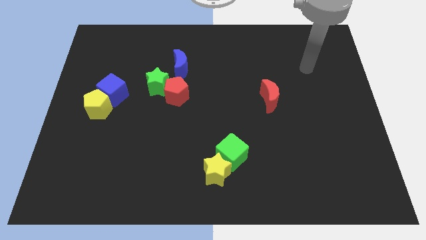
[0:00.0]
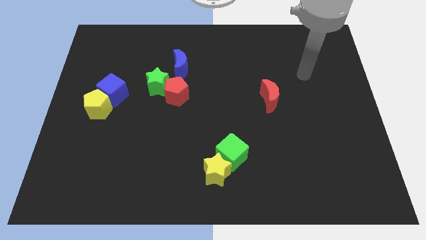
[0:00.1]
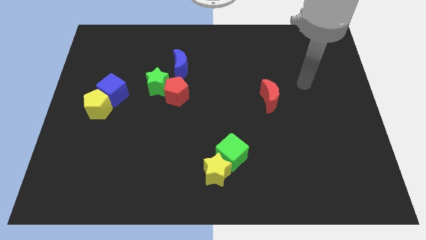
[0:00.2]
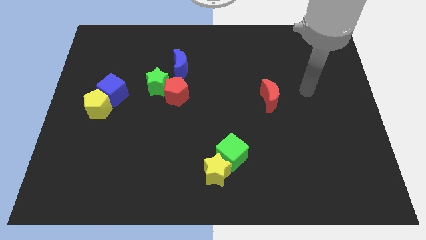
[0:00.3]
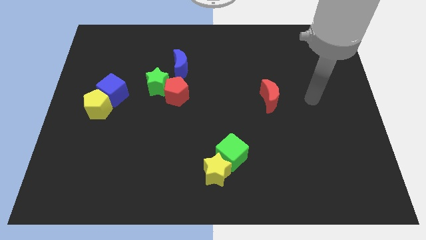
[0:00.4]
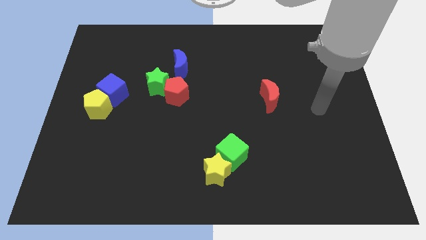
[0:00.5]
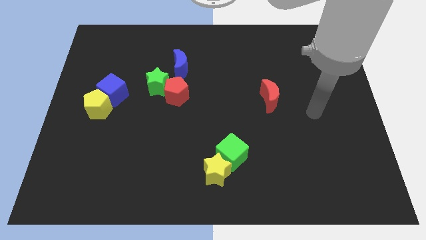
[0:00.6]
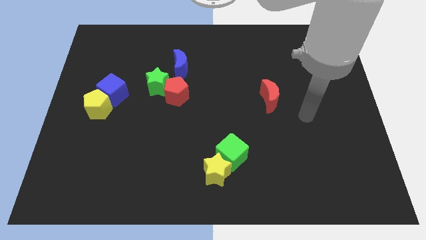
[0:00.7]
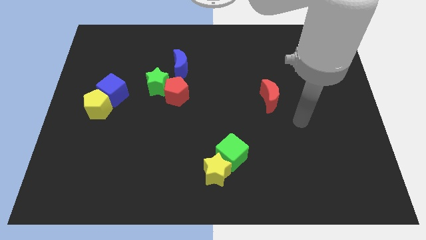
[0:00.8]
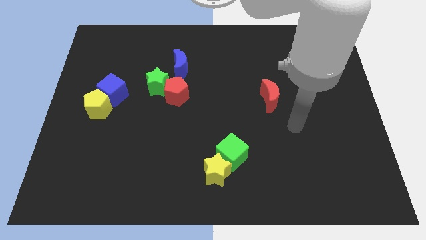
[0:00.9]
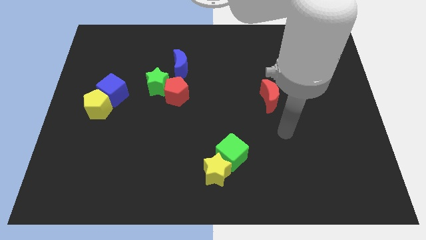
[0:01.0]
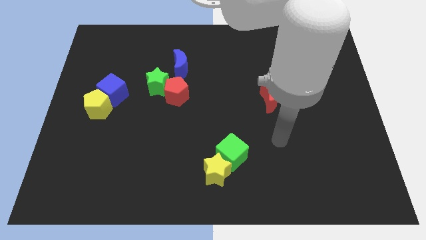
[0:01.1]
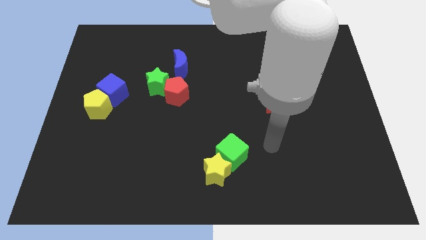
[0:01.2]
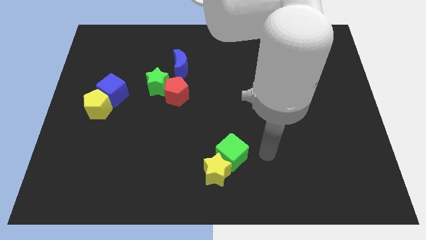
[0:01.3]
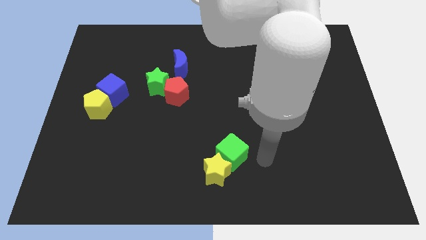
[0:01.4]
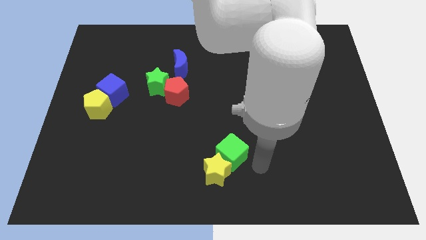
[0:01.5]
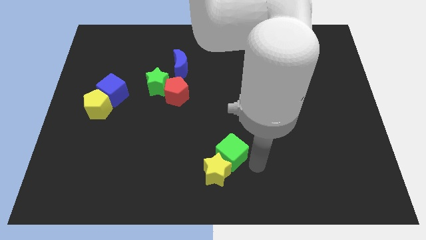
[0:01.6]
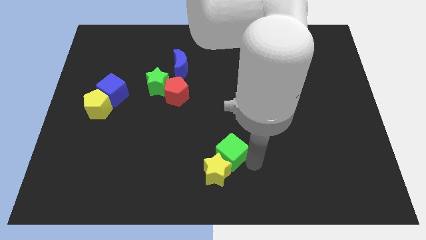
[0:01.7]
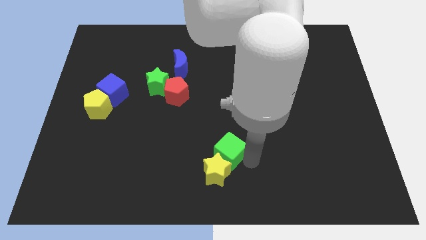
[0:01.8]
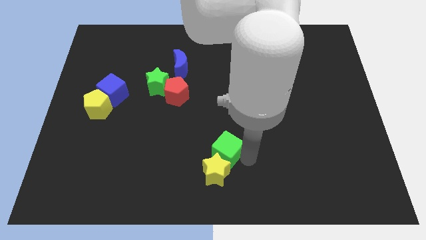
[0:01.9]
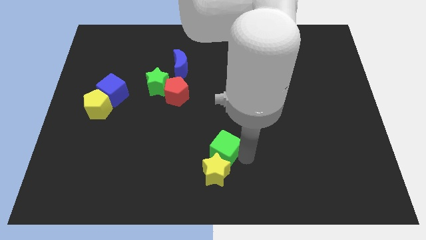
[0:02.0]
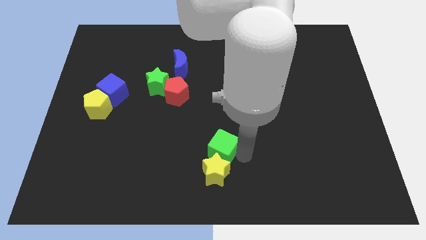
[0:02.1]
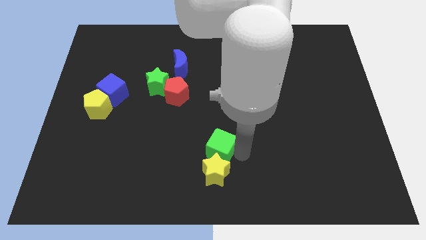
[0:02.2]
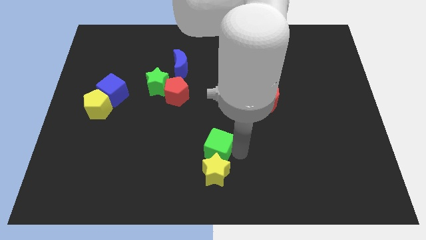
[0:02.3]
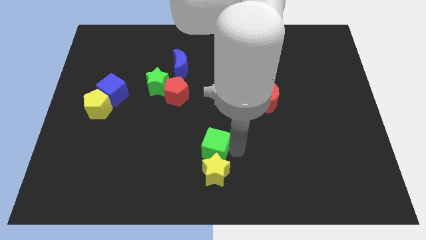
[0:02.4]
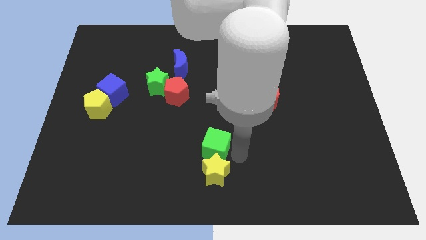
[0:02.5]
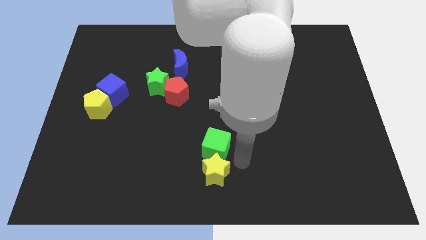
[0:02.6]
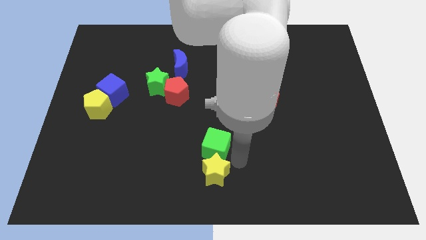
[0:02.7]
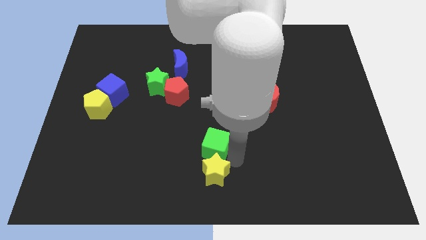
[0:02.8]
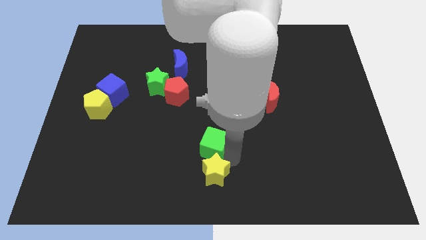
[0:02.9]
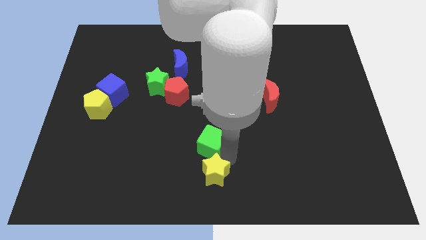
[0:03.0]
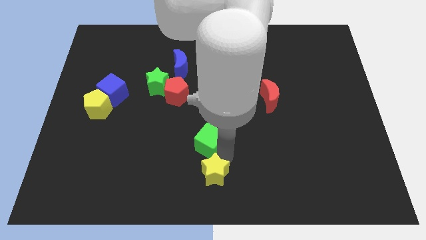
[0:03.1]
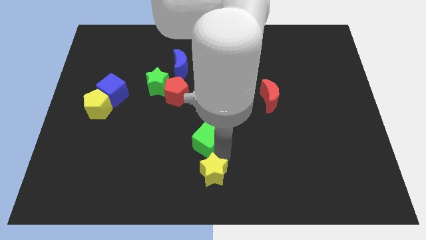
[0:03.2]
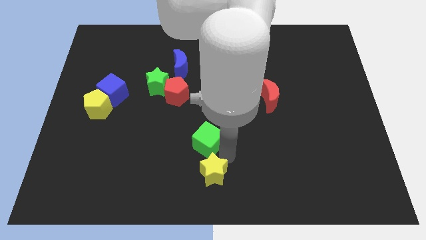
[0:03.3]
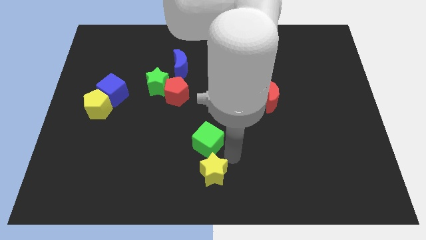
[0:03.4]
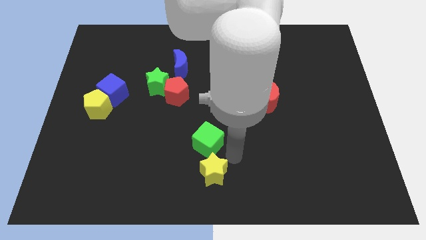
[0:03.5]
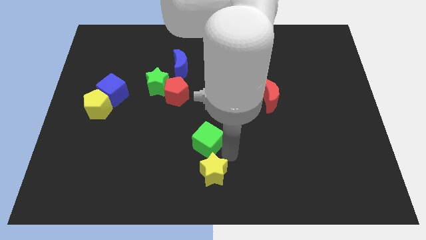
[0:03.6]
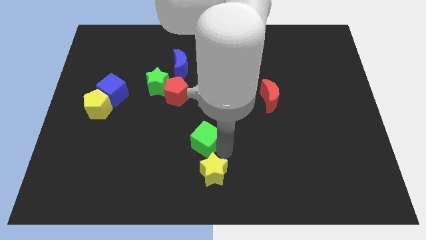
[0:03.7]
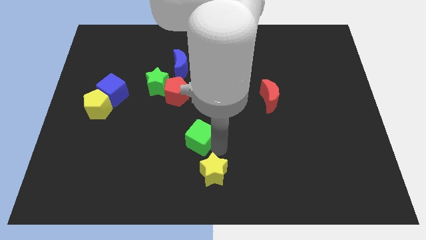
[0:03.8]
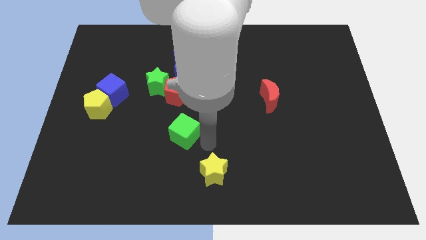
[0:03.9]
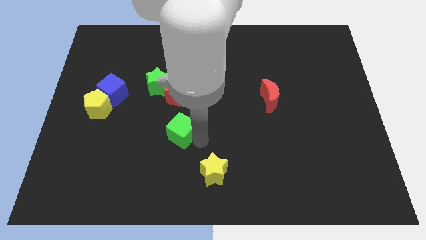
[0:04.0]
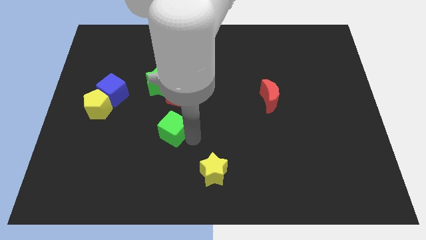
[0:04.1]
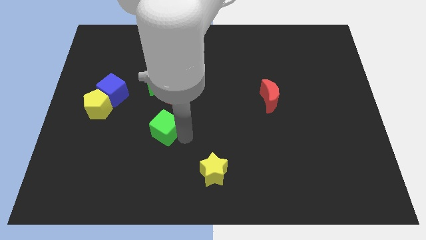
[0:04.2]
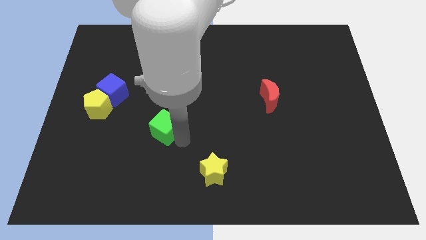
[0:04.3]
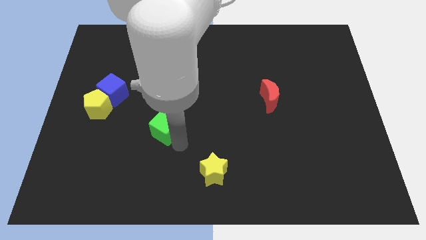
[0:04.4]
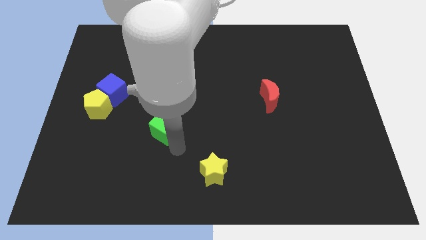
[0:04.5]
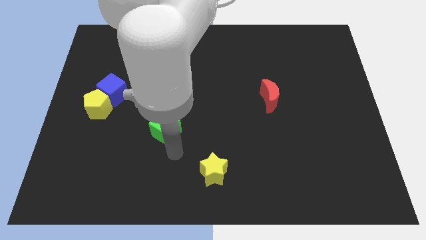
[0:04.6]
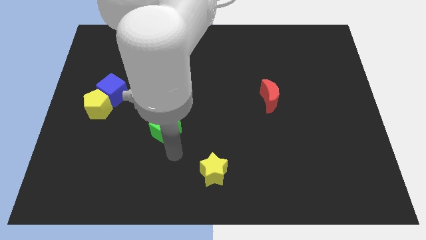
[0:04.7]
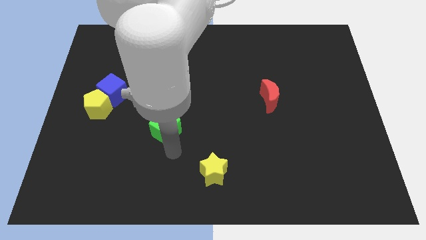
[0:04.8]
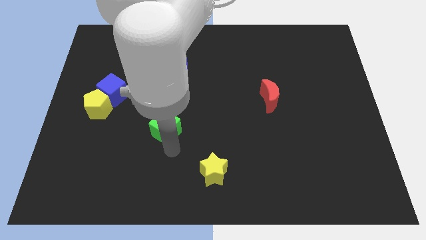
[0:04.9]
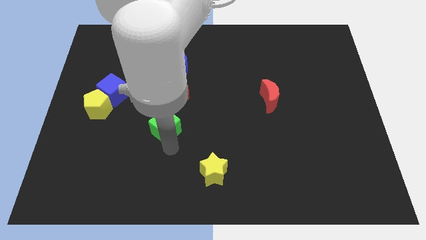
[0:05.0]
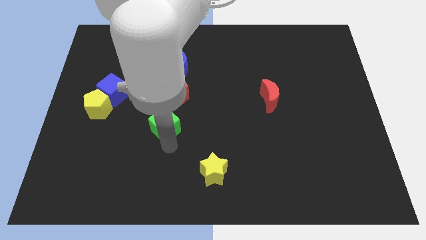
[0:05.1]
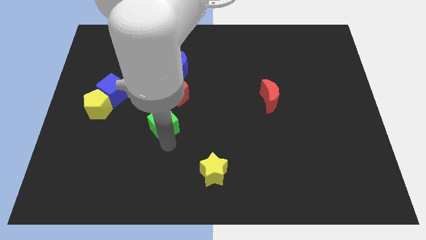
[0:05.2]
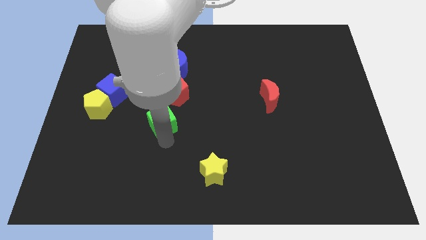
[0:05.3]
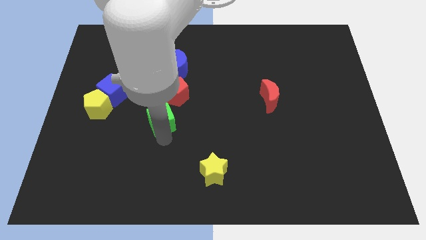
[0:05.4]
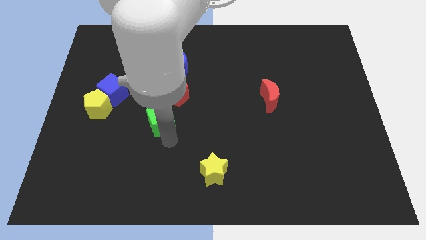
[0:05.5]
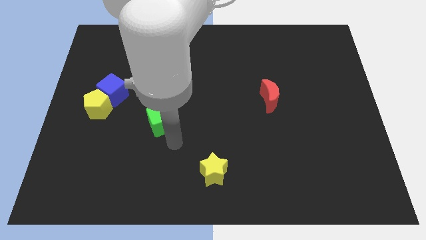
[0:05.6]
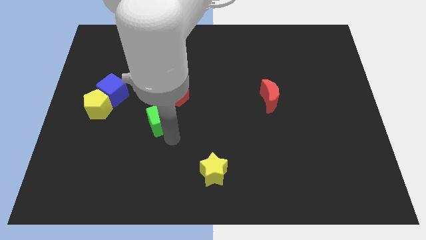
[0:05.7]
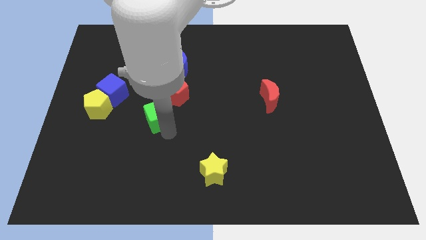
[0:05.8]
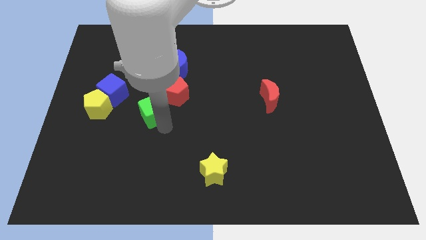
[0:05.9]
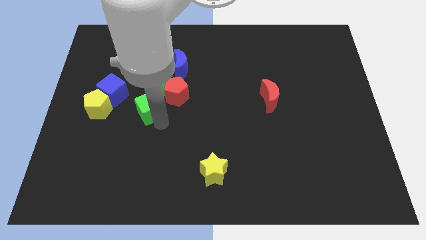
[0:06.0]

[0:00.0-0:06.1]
slide the green cube diagonally up and to the left

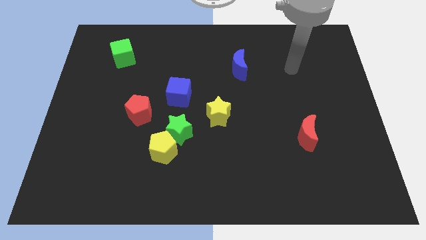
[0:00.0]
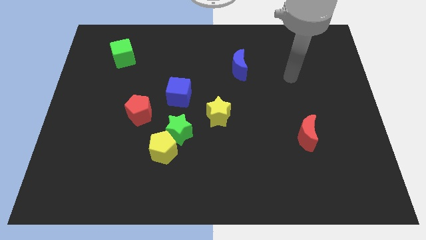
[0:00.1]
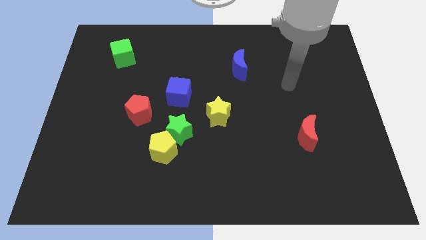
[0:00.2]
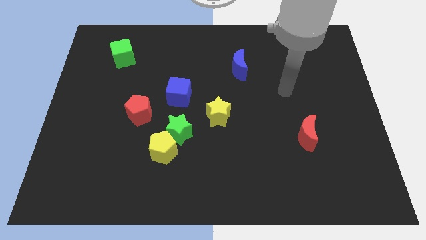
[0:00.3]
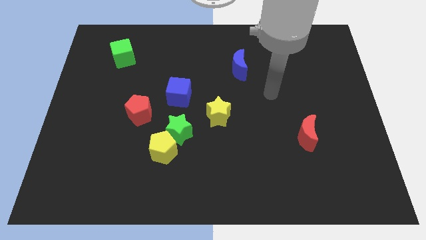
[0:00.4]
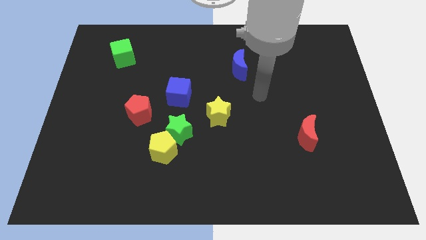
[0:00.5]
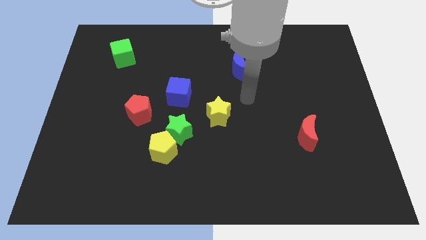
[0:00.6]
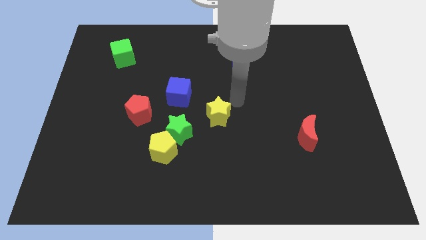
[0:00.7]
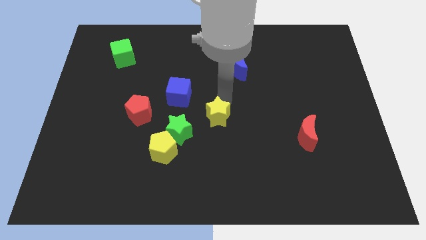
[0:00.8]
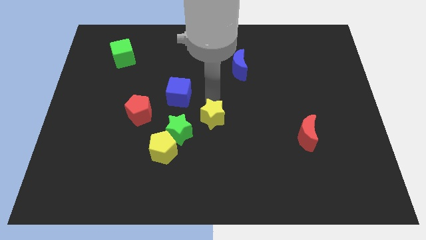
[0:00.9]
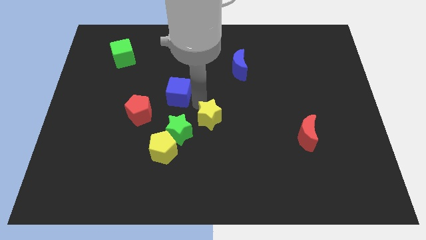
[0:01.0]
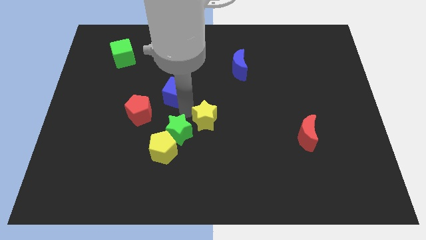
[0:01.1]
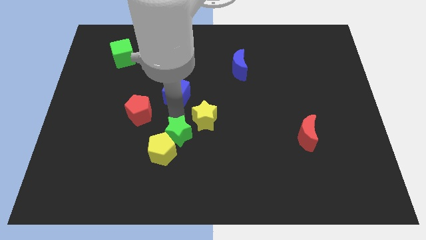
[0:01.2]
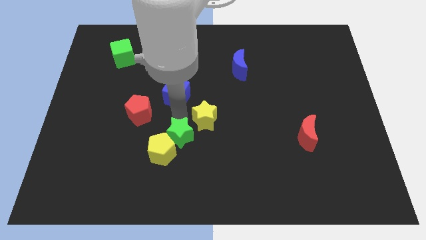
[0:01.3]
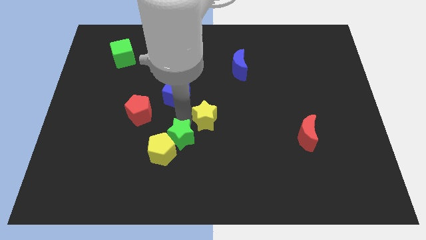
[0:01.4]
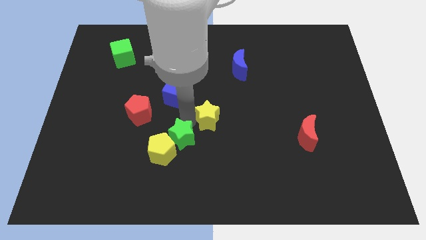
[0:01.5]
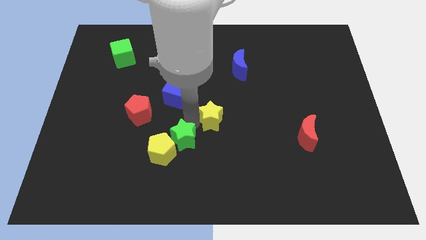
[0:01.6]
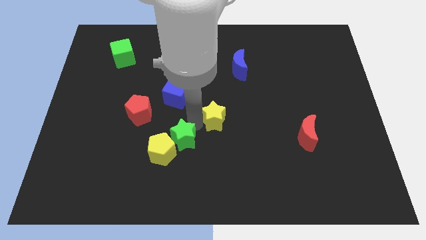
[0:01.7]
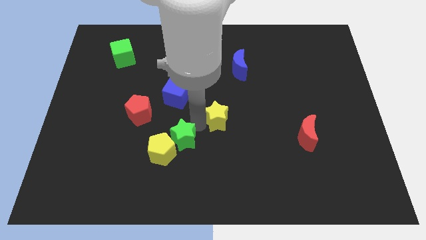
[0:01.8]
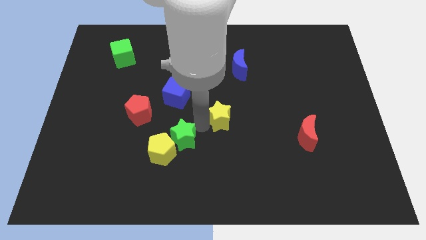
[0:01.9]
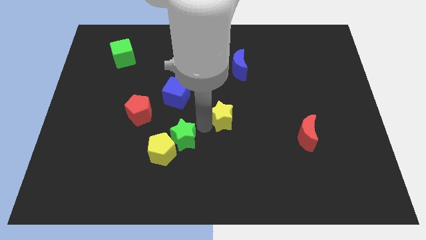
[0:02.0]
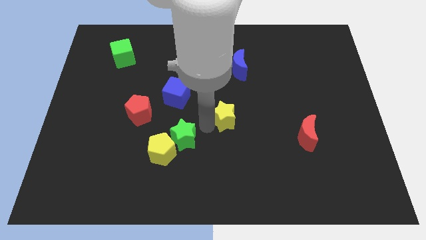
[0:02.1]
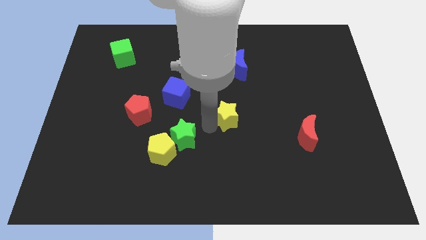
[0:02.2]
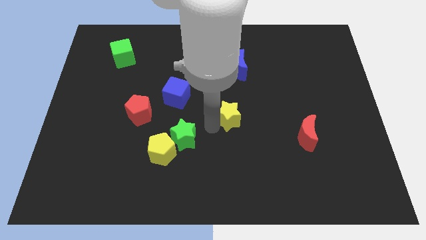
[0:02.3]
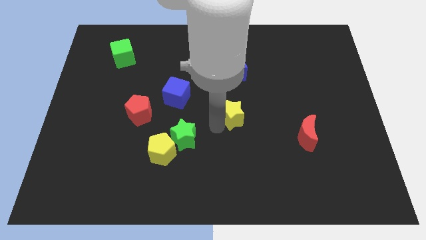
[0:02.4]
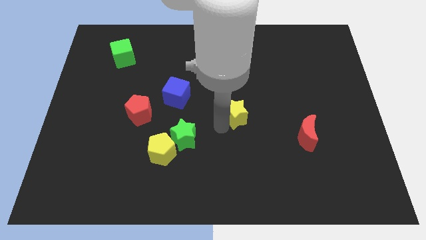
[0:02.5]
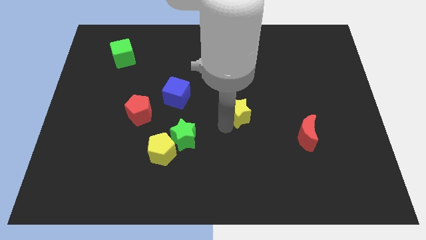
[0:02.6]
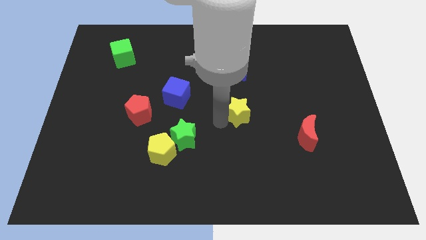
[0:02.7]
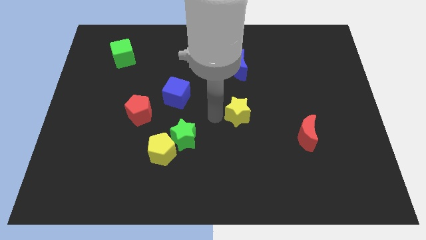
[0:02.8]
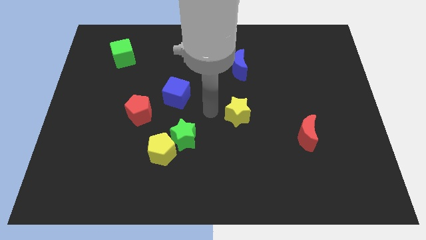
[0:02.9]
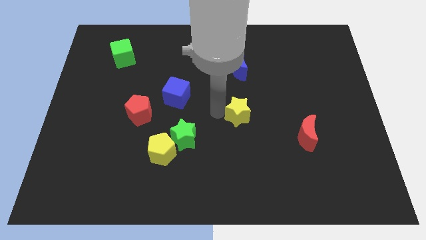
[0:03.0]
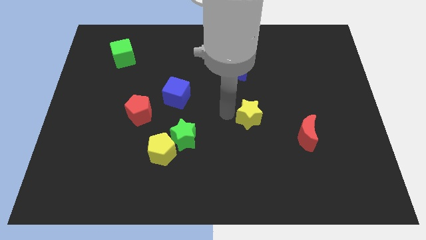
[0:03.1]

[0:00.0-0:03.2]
slide the yellow star to the right a bit
